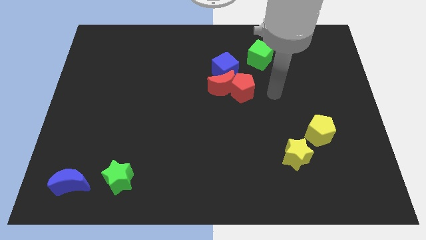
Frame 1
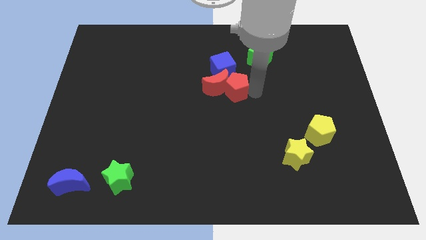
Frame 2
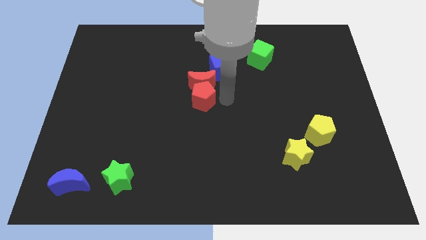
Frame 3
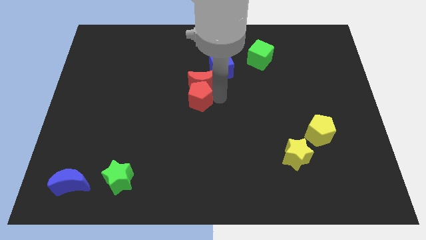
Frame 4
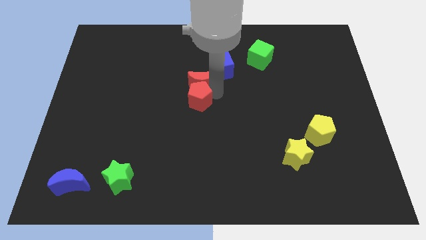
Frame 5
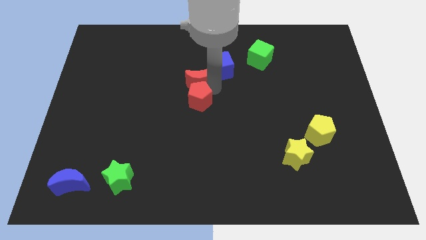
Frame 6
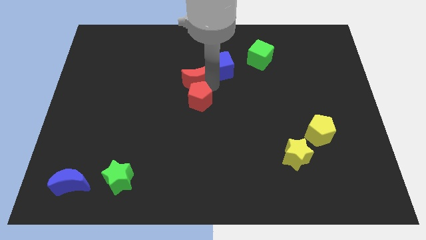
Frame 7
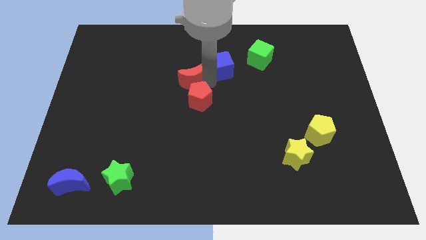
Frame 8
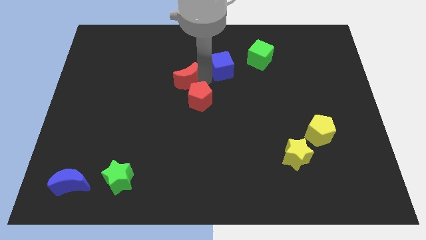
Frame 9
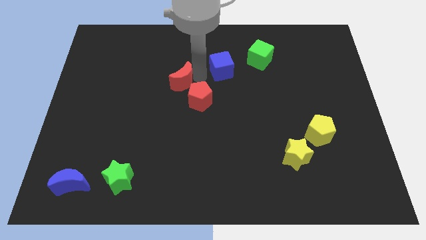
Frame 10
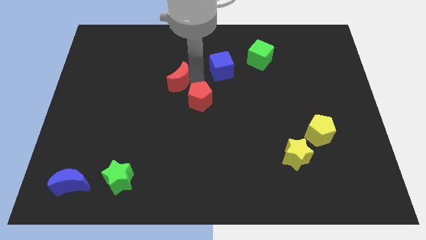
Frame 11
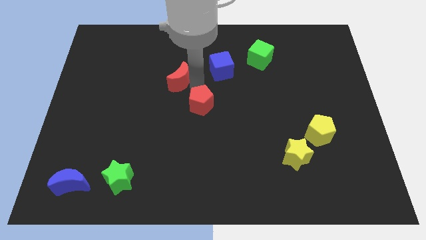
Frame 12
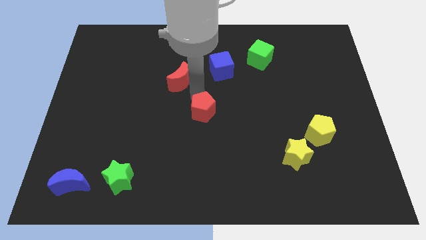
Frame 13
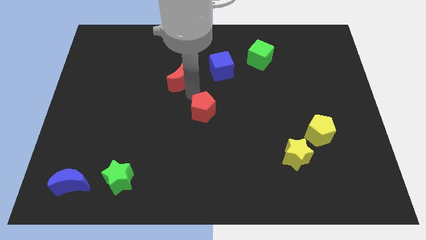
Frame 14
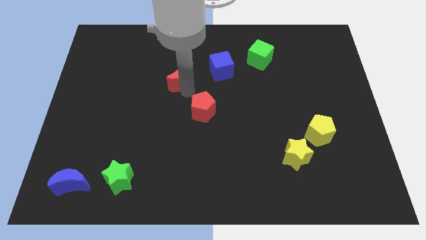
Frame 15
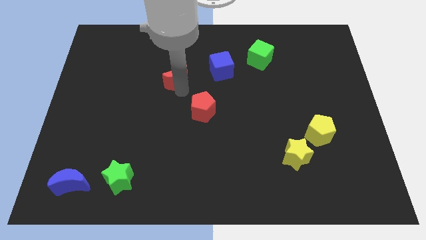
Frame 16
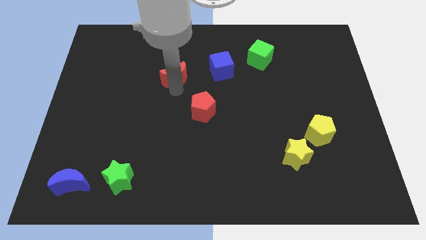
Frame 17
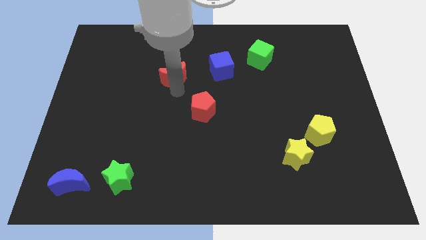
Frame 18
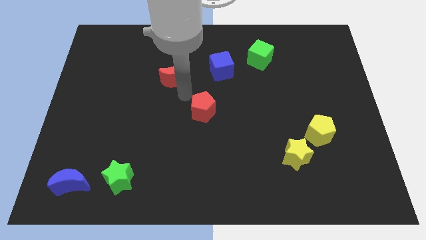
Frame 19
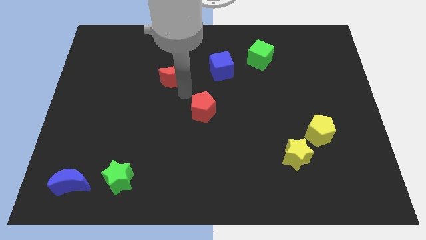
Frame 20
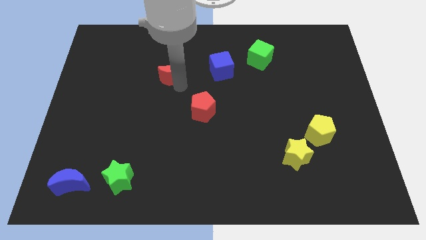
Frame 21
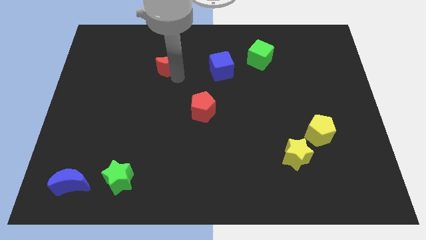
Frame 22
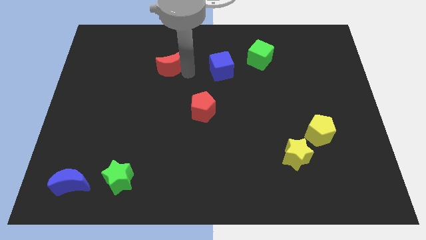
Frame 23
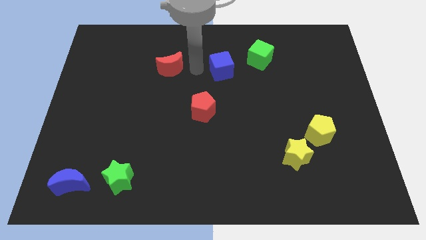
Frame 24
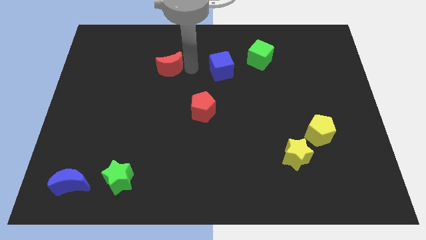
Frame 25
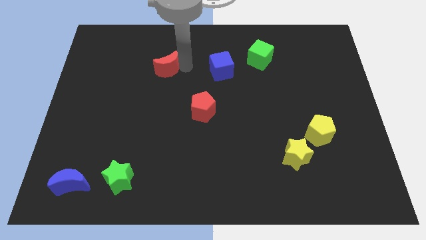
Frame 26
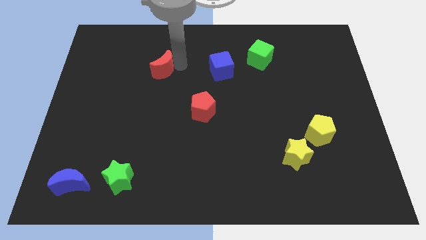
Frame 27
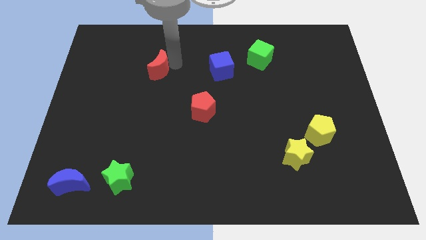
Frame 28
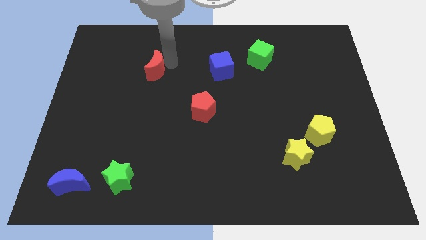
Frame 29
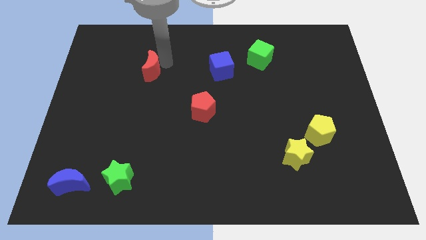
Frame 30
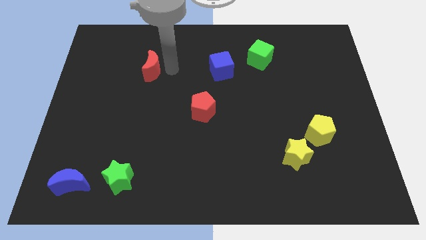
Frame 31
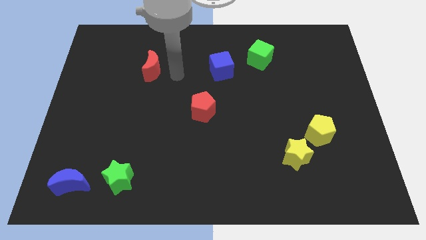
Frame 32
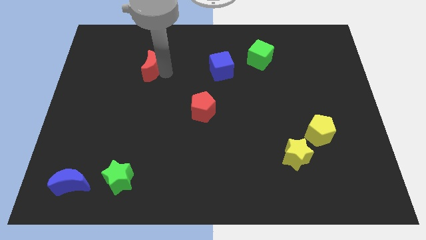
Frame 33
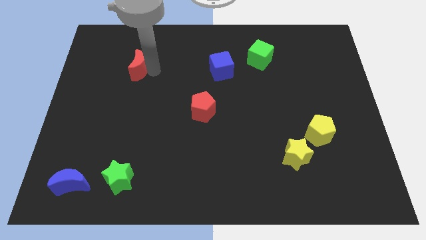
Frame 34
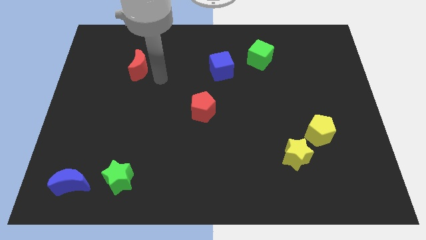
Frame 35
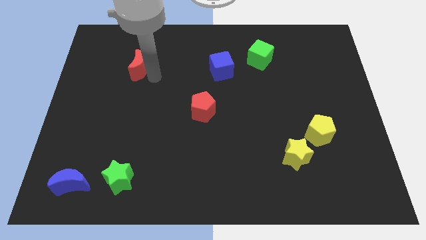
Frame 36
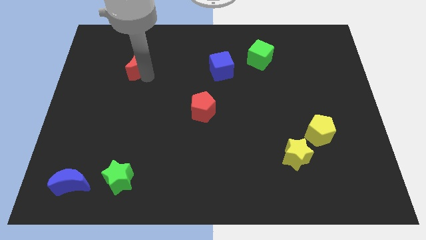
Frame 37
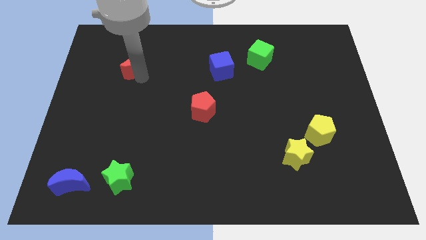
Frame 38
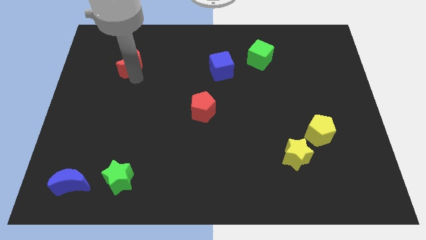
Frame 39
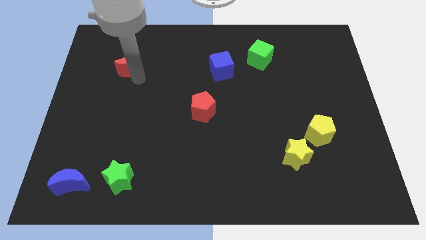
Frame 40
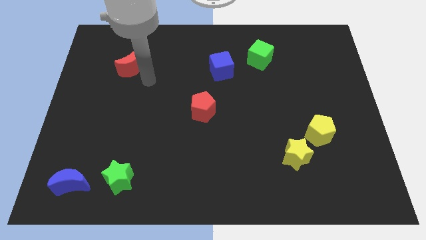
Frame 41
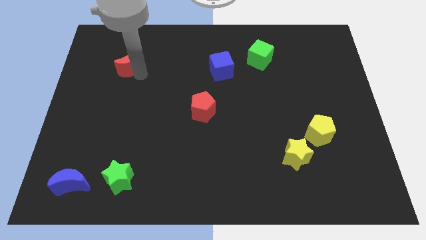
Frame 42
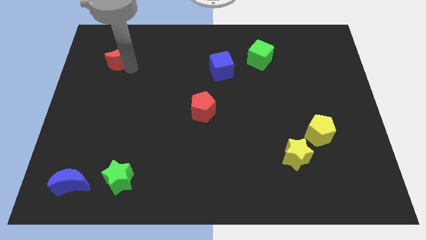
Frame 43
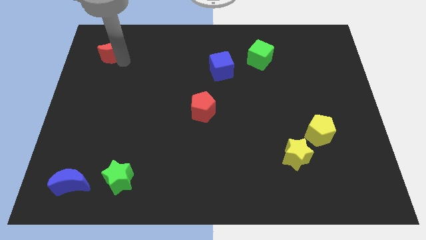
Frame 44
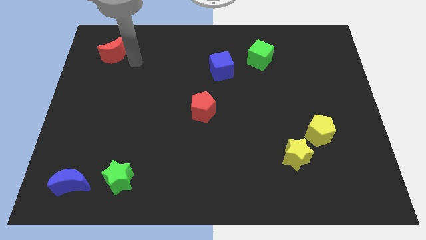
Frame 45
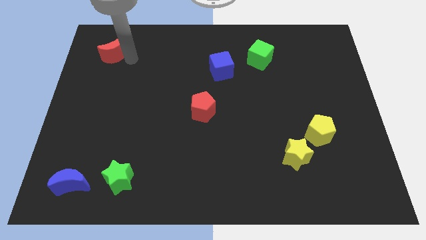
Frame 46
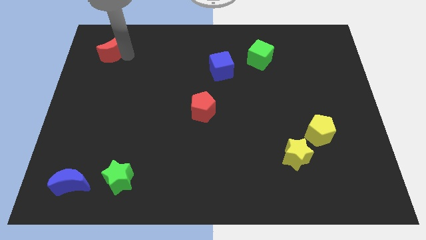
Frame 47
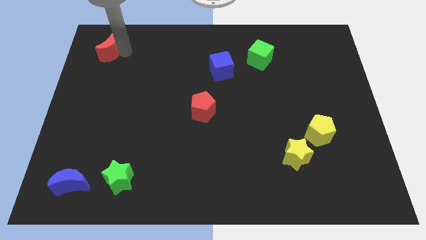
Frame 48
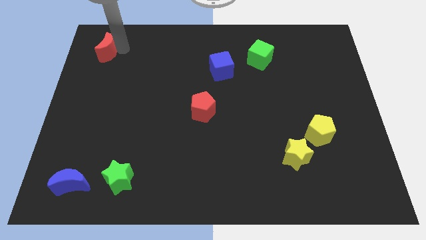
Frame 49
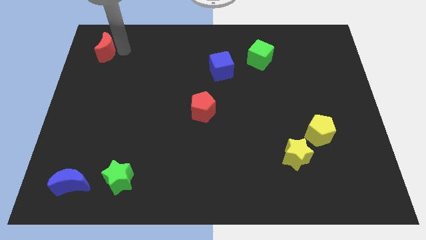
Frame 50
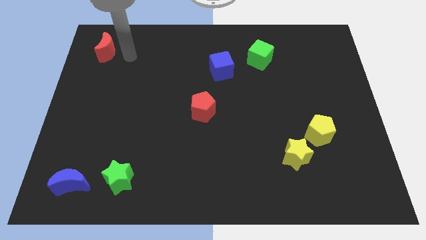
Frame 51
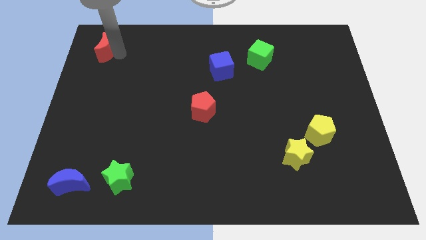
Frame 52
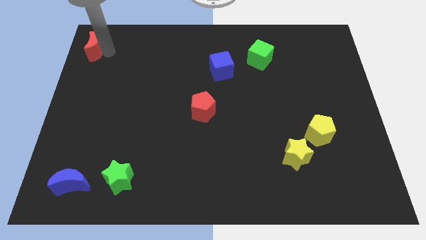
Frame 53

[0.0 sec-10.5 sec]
slide the red moon to the top left
